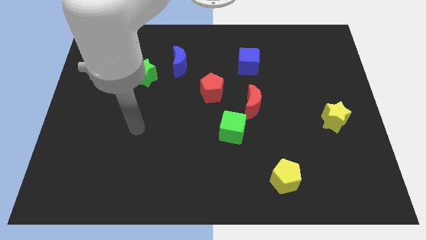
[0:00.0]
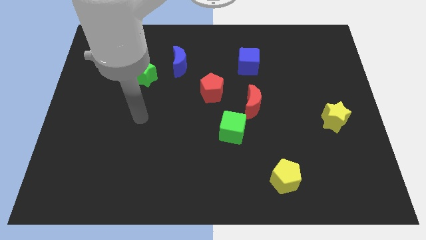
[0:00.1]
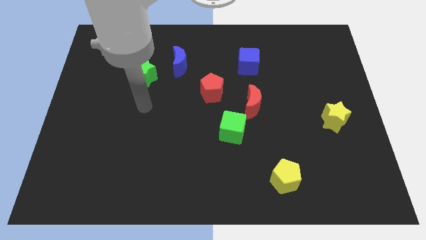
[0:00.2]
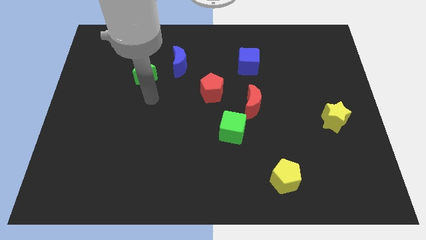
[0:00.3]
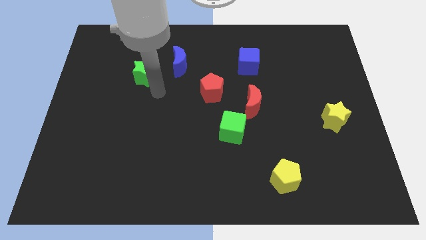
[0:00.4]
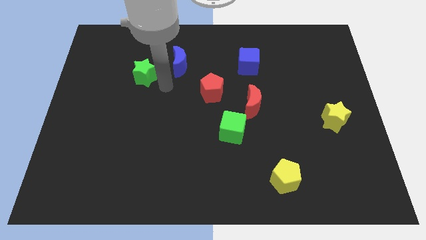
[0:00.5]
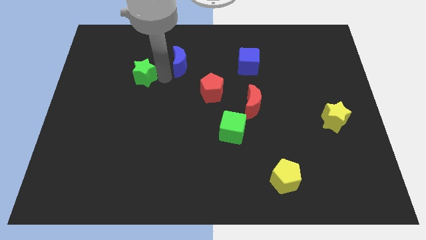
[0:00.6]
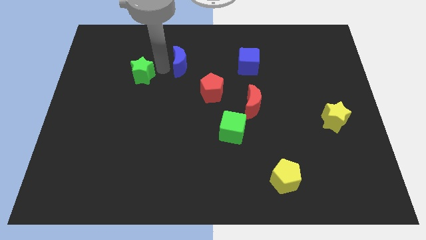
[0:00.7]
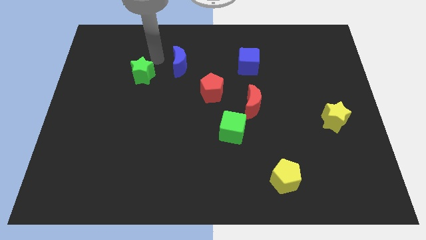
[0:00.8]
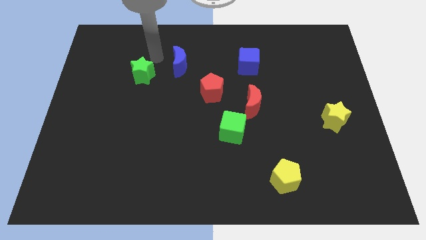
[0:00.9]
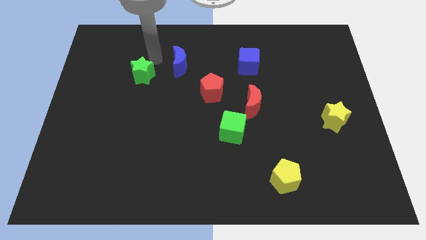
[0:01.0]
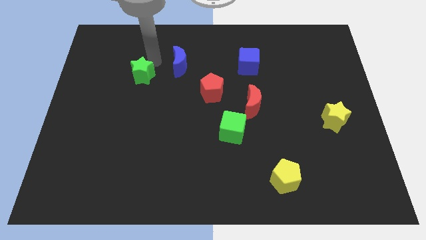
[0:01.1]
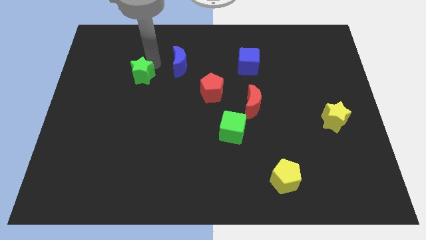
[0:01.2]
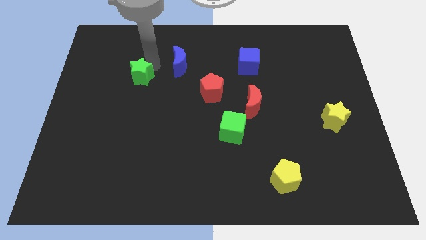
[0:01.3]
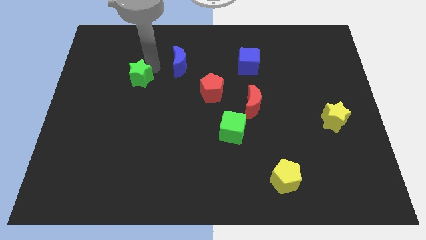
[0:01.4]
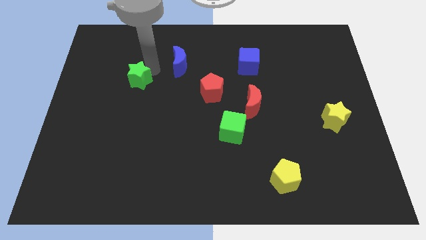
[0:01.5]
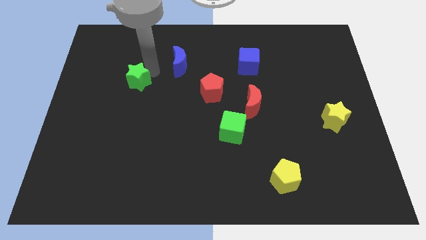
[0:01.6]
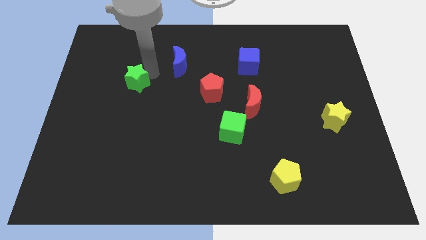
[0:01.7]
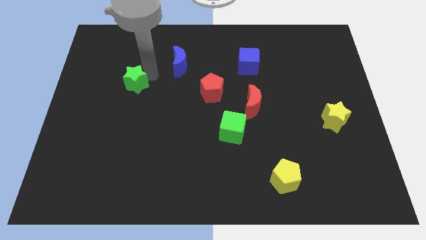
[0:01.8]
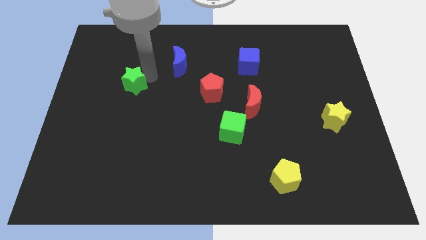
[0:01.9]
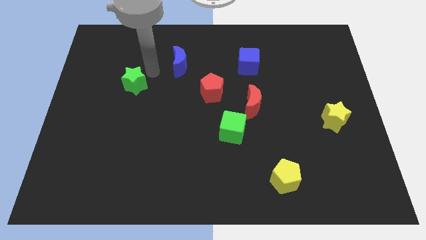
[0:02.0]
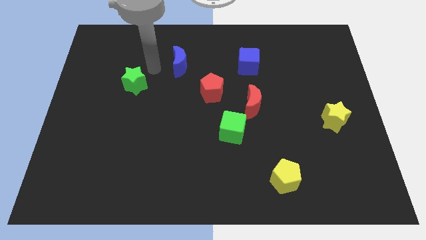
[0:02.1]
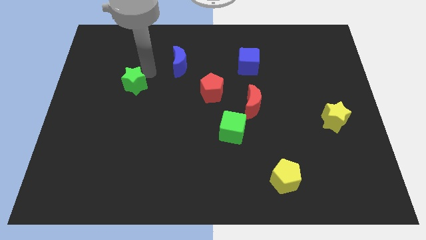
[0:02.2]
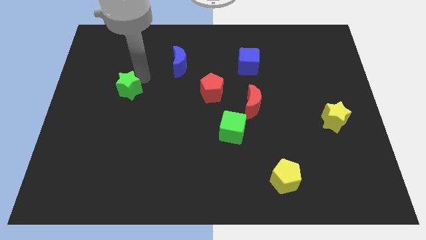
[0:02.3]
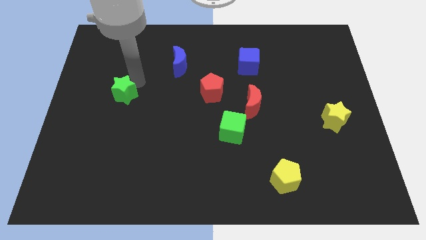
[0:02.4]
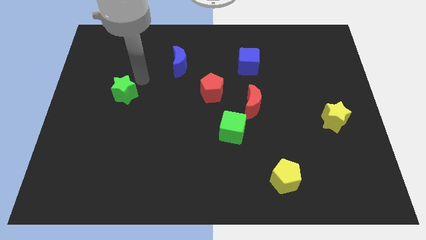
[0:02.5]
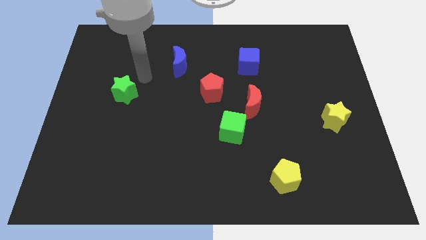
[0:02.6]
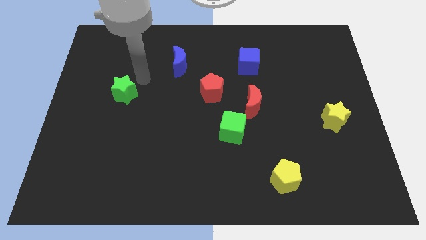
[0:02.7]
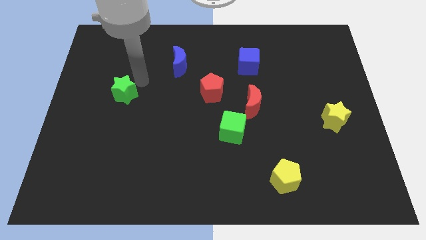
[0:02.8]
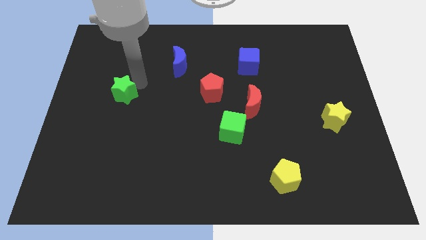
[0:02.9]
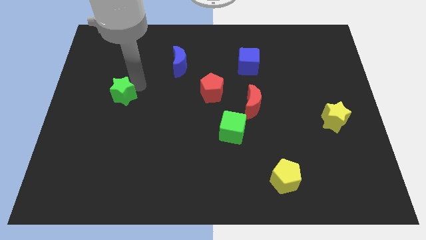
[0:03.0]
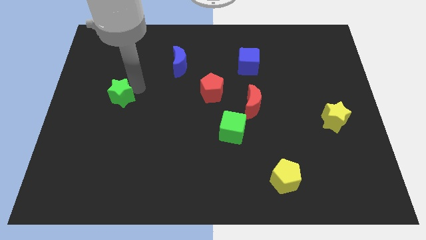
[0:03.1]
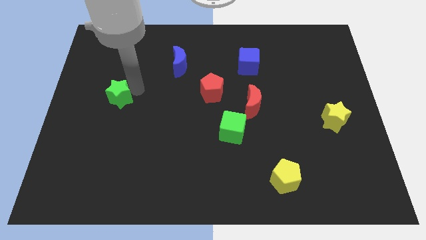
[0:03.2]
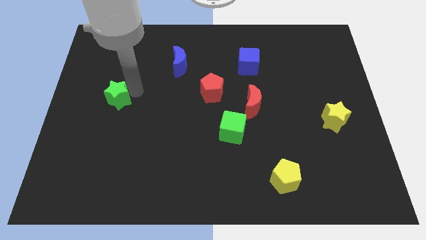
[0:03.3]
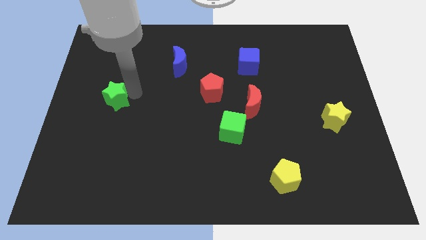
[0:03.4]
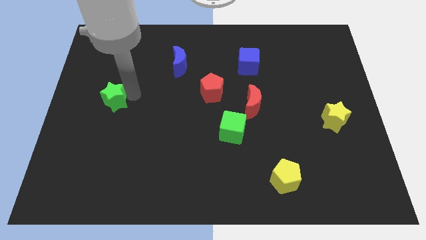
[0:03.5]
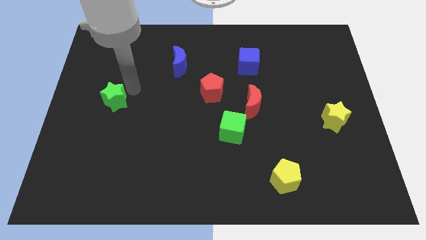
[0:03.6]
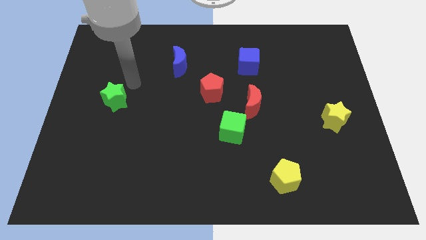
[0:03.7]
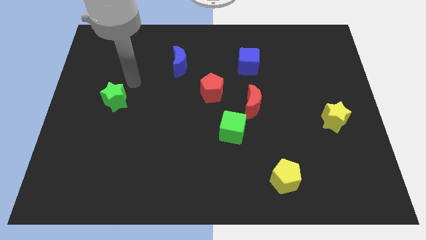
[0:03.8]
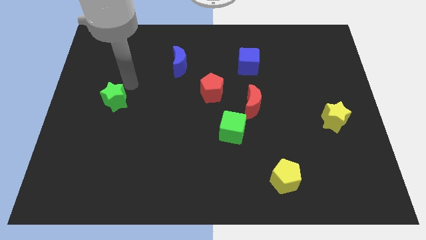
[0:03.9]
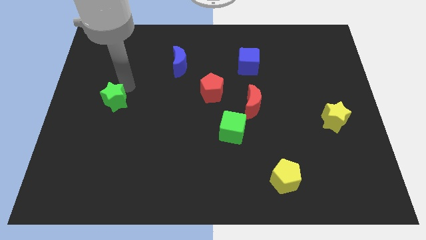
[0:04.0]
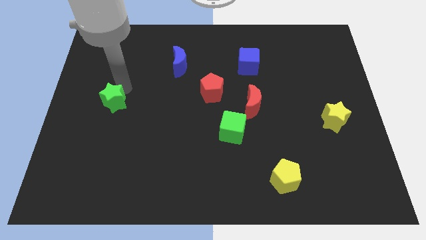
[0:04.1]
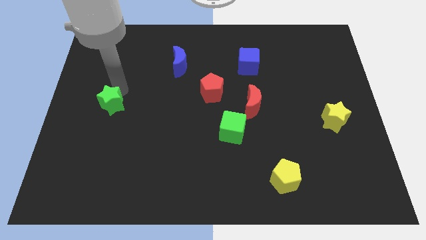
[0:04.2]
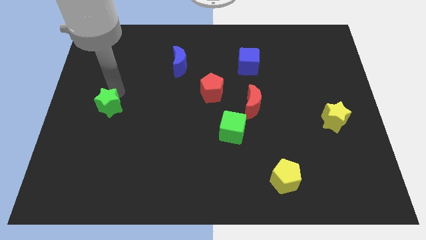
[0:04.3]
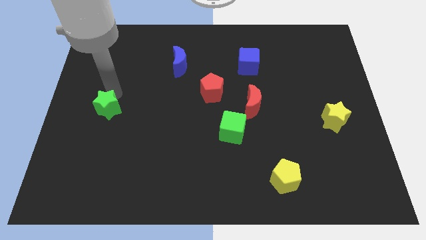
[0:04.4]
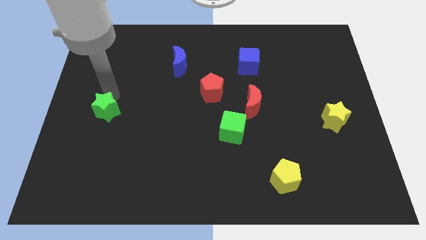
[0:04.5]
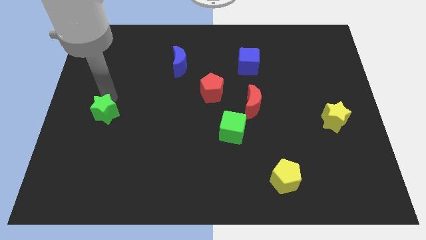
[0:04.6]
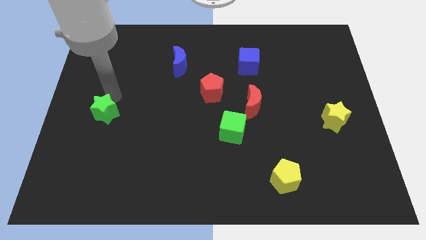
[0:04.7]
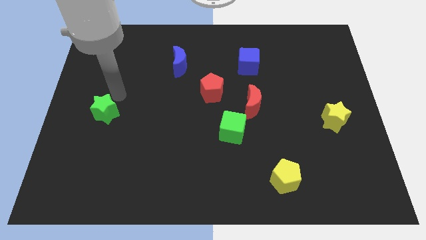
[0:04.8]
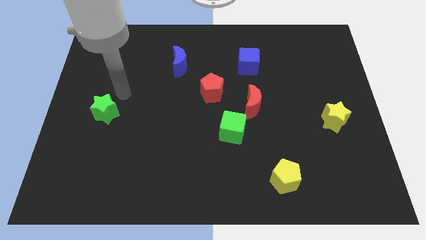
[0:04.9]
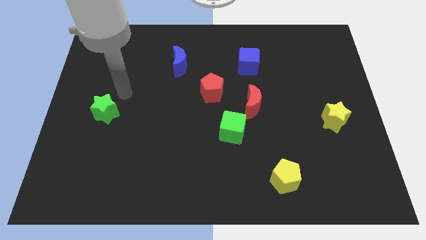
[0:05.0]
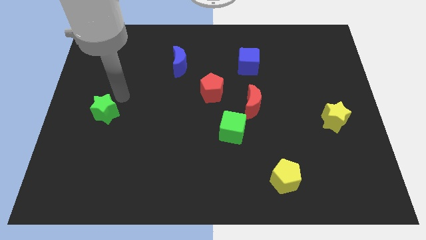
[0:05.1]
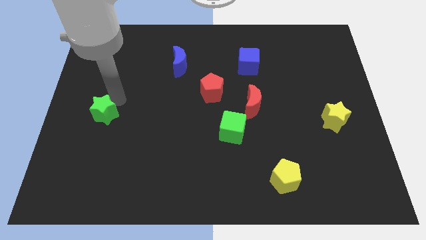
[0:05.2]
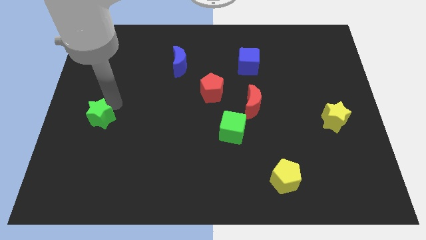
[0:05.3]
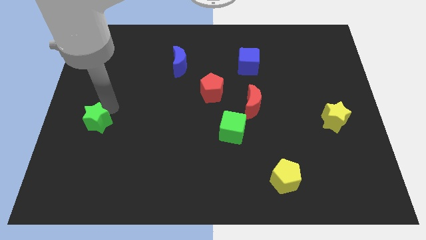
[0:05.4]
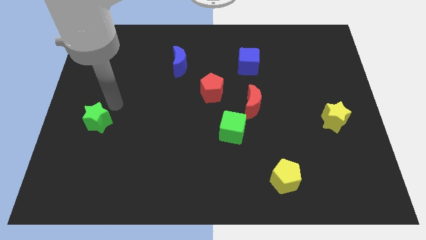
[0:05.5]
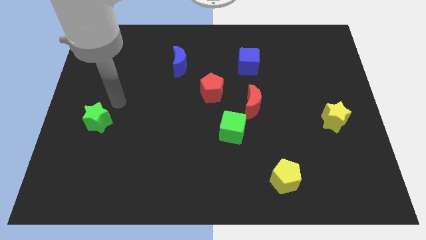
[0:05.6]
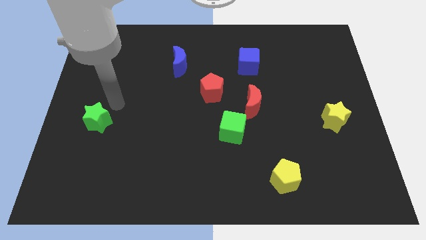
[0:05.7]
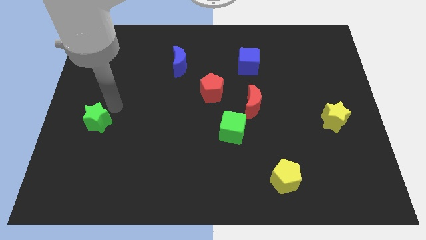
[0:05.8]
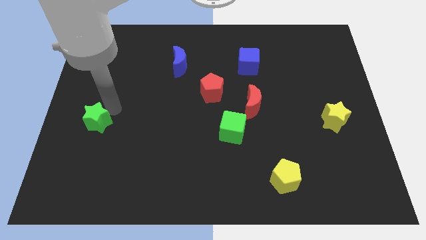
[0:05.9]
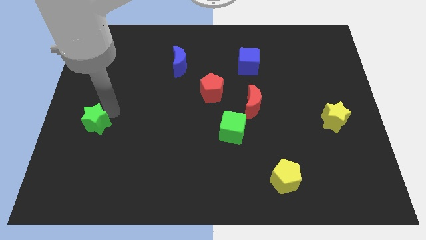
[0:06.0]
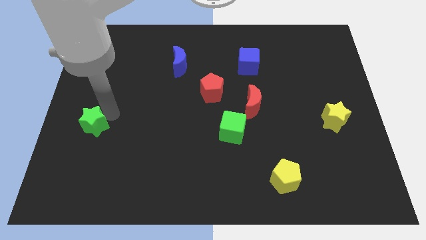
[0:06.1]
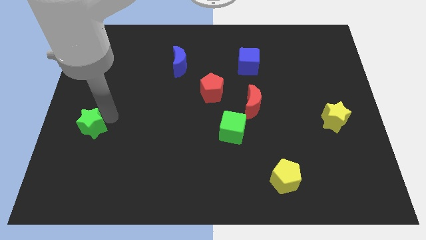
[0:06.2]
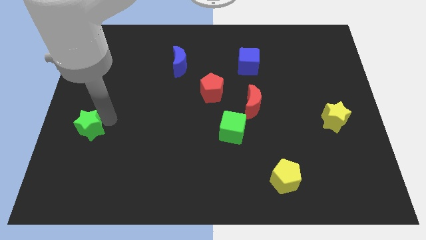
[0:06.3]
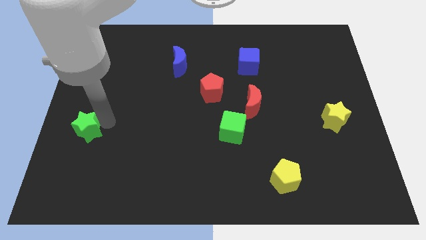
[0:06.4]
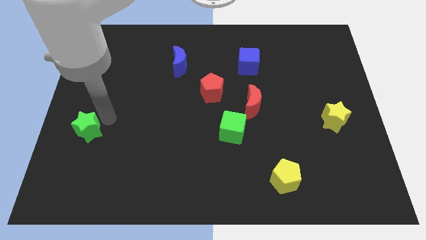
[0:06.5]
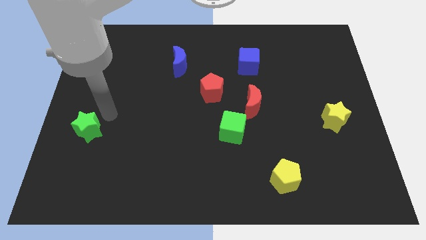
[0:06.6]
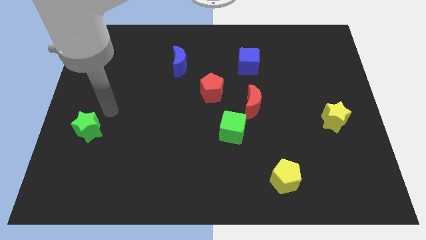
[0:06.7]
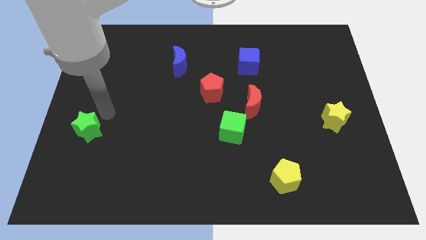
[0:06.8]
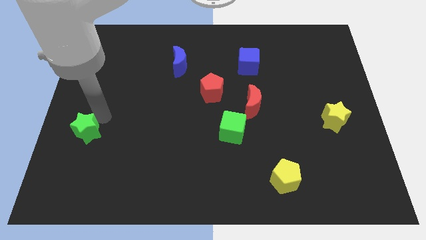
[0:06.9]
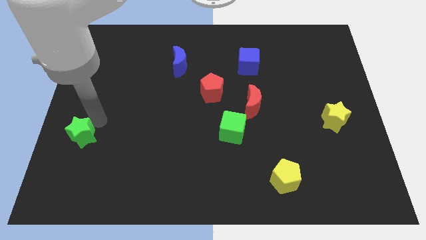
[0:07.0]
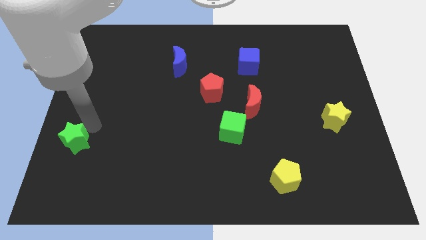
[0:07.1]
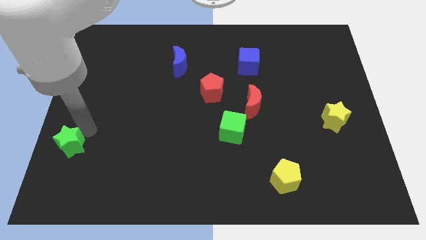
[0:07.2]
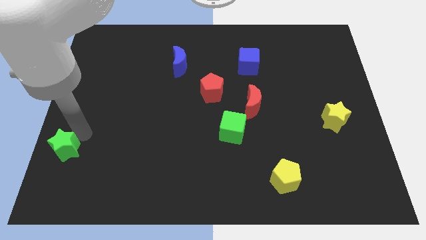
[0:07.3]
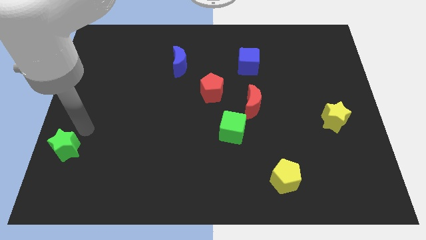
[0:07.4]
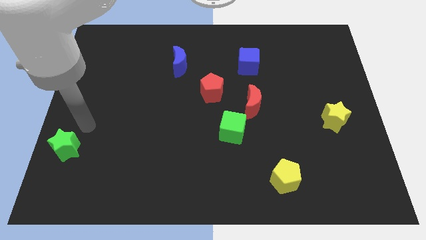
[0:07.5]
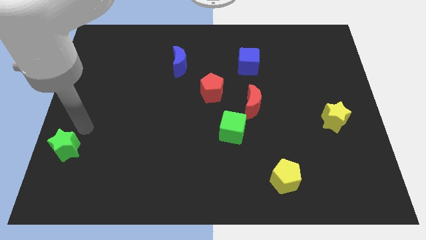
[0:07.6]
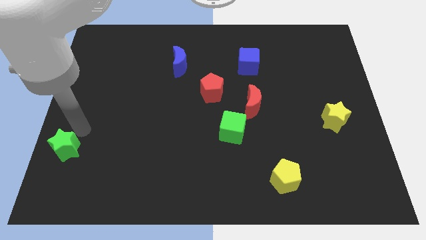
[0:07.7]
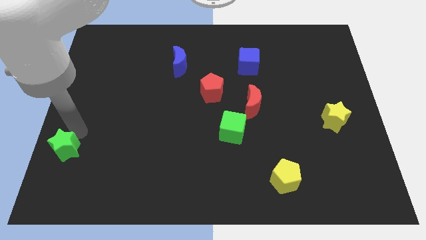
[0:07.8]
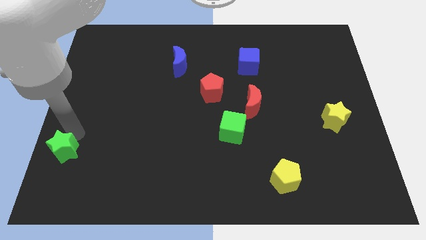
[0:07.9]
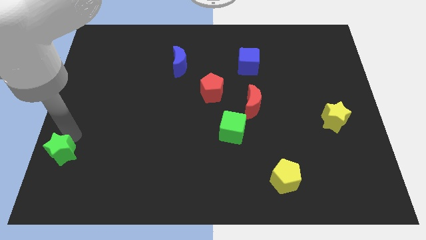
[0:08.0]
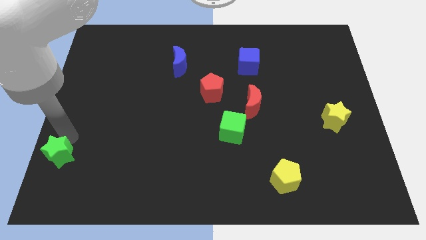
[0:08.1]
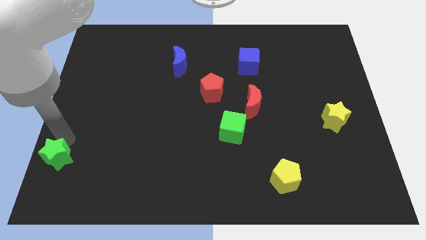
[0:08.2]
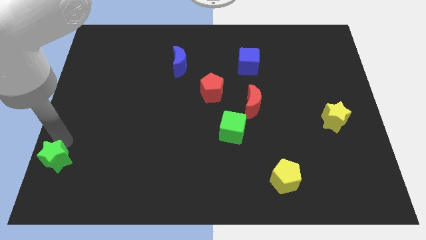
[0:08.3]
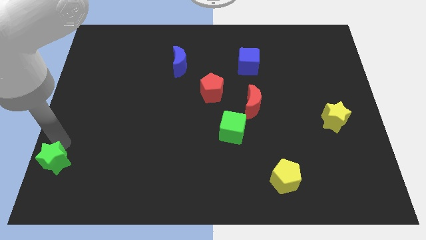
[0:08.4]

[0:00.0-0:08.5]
move the green star to the bottom left corner
